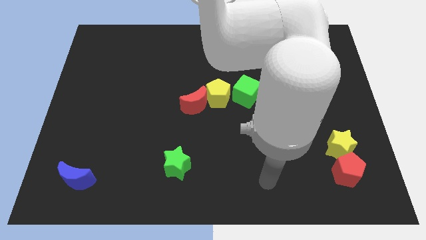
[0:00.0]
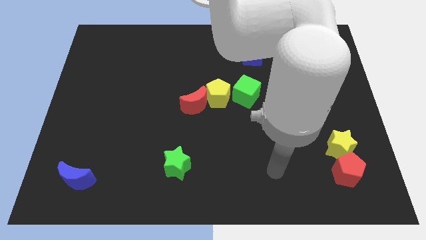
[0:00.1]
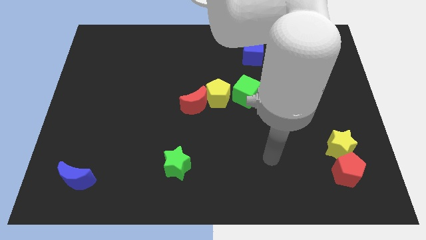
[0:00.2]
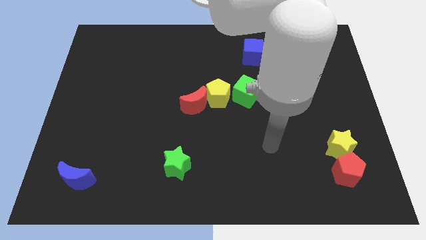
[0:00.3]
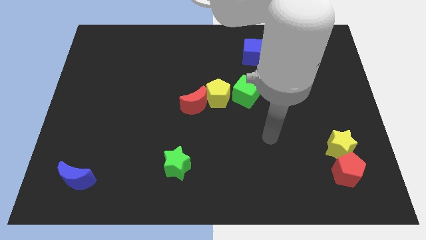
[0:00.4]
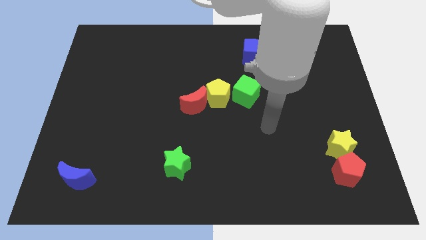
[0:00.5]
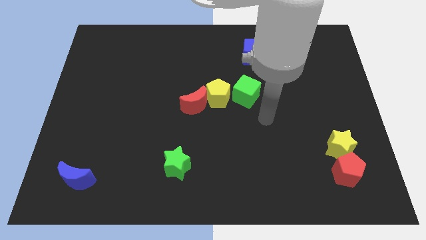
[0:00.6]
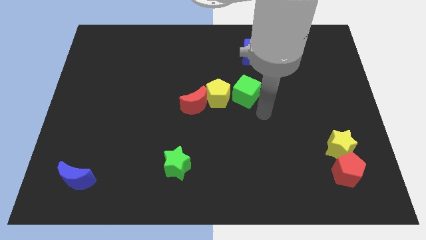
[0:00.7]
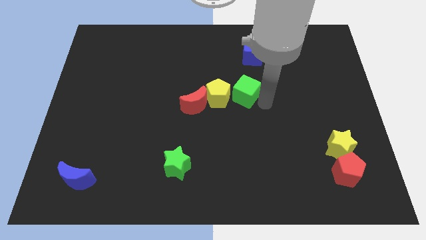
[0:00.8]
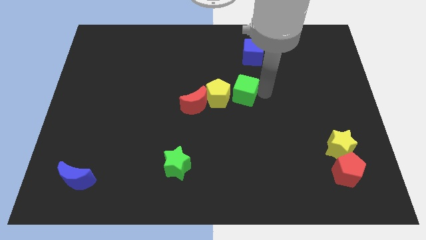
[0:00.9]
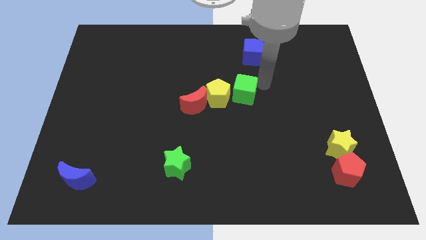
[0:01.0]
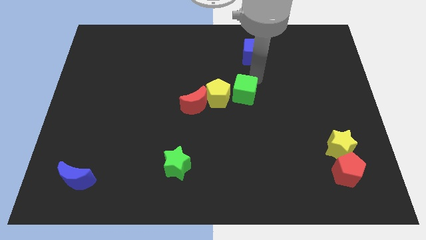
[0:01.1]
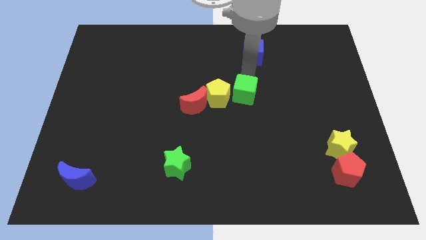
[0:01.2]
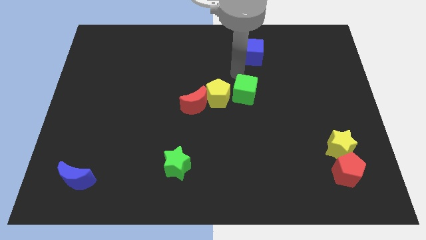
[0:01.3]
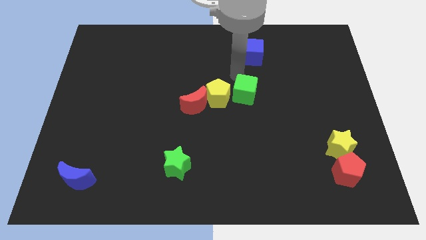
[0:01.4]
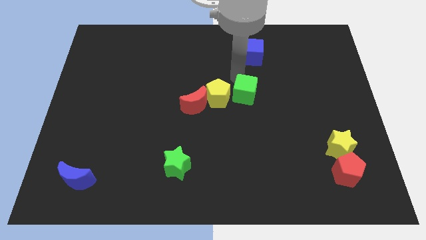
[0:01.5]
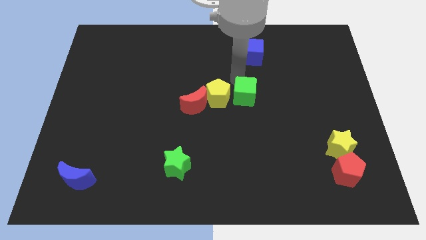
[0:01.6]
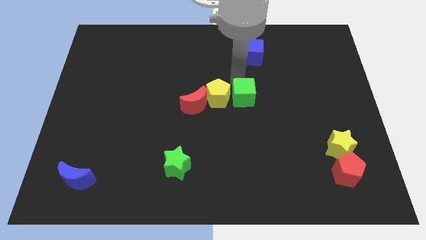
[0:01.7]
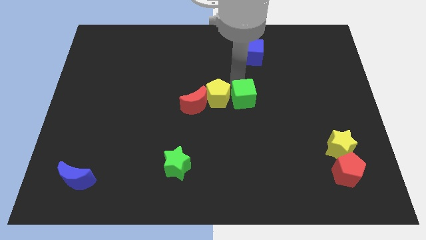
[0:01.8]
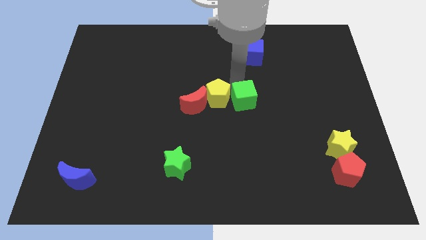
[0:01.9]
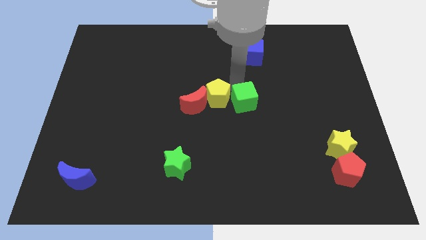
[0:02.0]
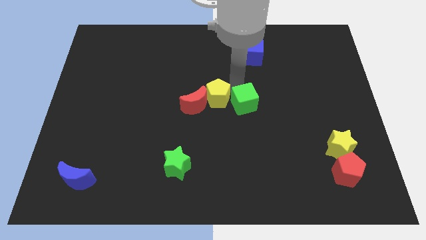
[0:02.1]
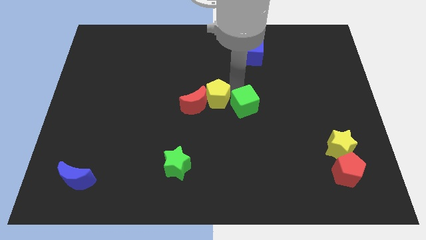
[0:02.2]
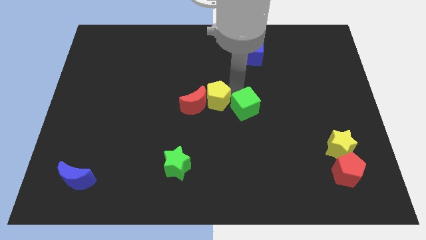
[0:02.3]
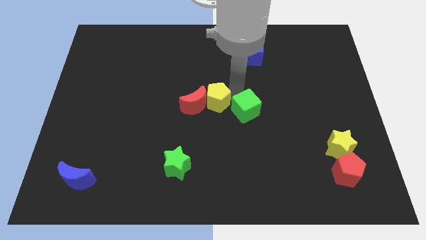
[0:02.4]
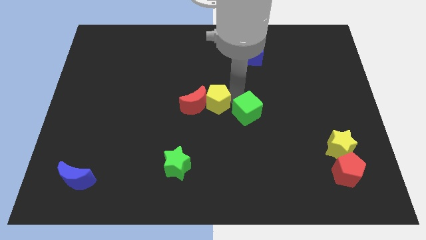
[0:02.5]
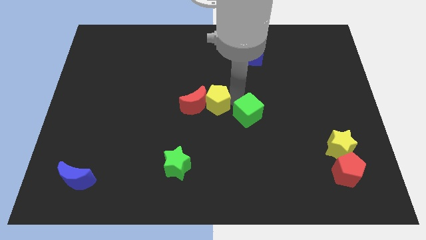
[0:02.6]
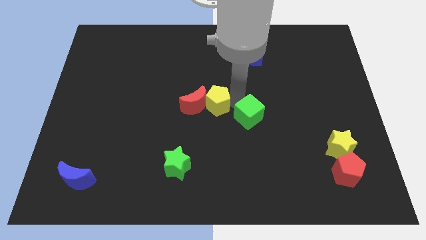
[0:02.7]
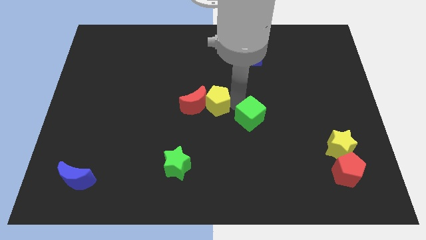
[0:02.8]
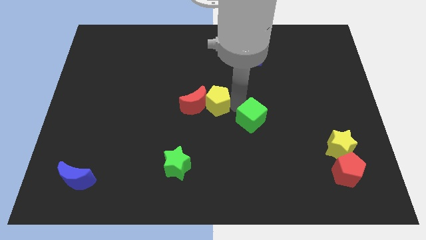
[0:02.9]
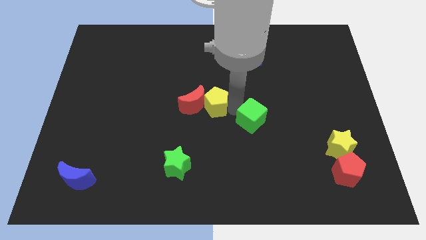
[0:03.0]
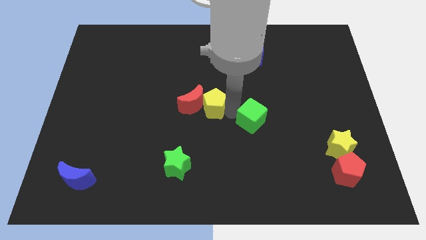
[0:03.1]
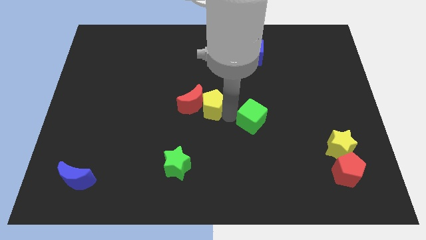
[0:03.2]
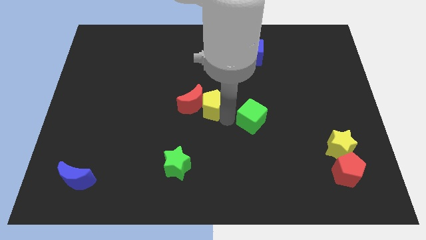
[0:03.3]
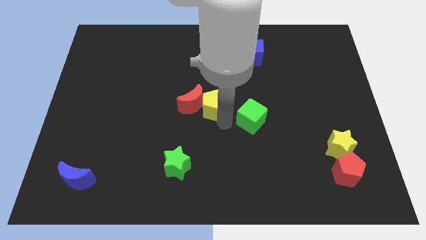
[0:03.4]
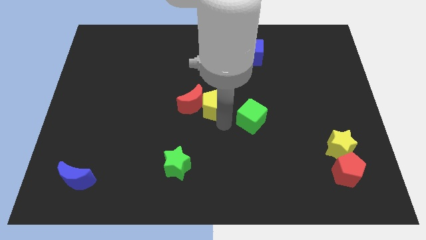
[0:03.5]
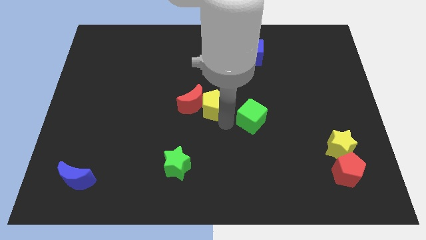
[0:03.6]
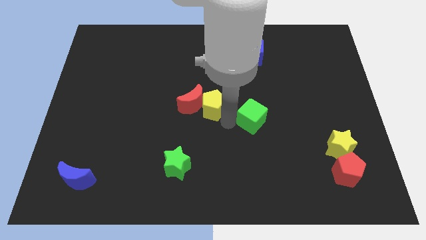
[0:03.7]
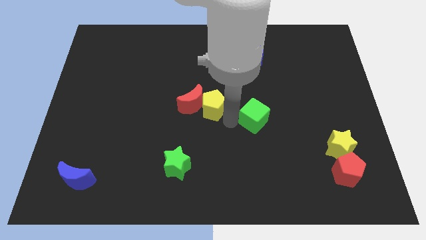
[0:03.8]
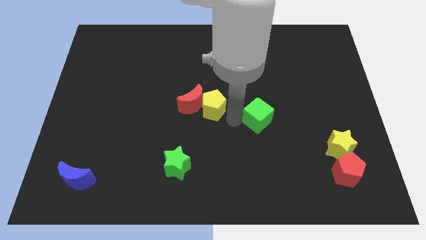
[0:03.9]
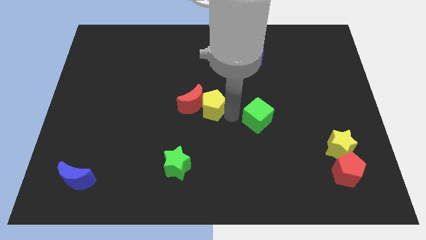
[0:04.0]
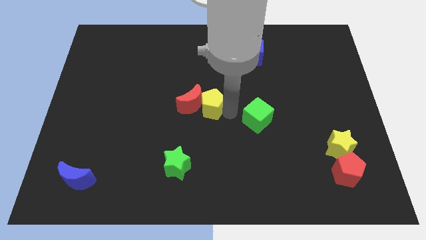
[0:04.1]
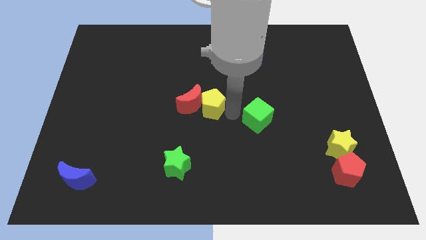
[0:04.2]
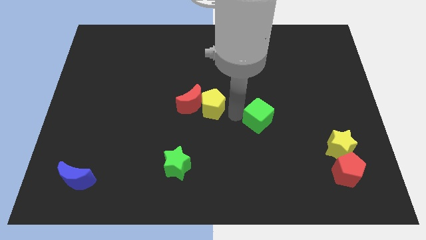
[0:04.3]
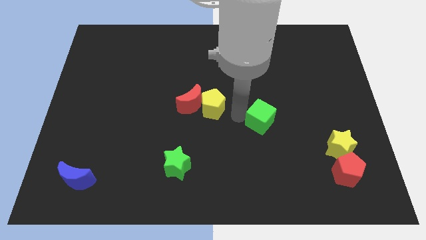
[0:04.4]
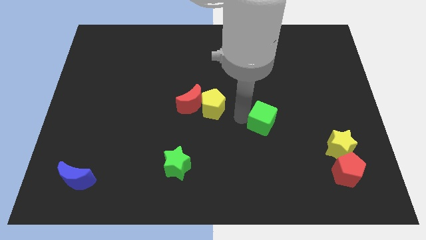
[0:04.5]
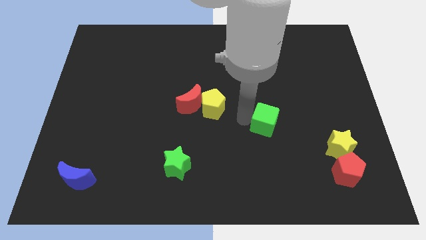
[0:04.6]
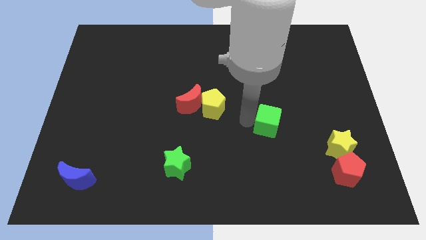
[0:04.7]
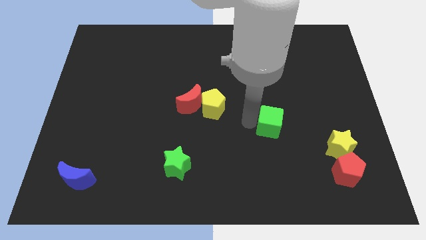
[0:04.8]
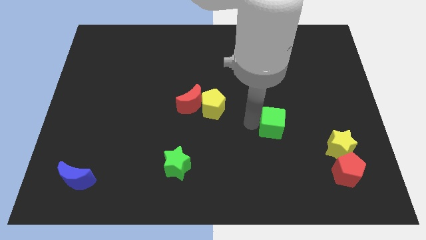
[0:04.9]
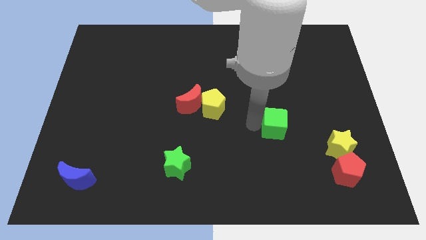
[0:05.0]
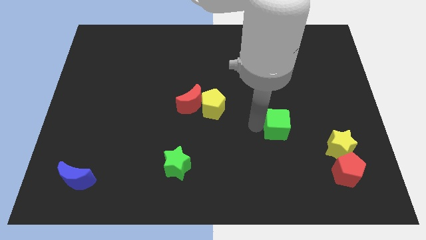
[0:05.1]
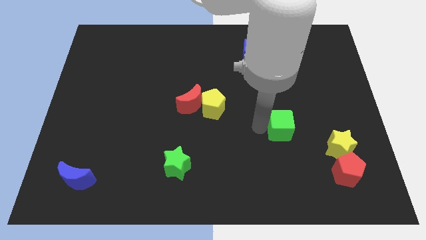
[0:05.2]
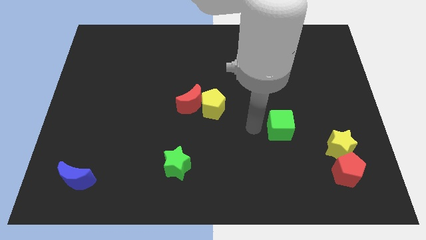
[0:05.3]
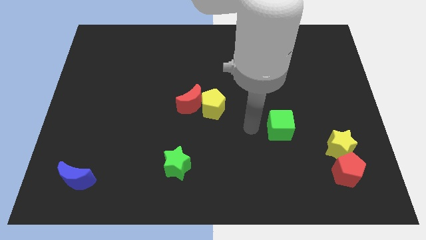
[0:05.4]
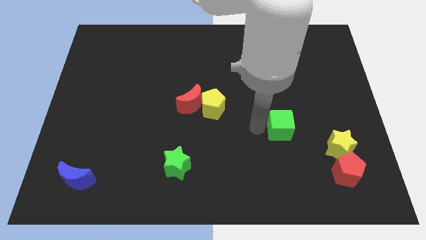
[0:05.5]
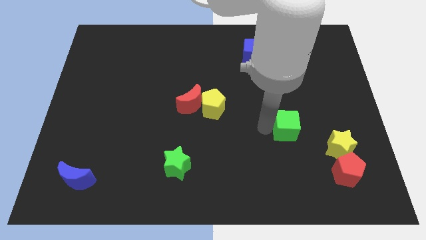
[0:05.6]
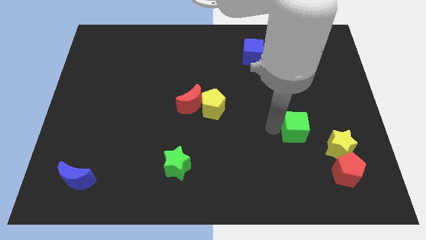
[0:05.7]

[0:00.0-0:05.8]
push the green cube diagonally up and to the left of the yellow star

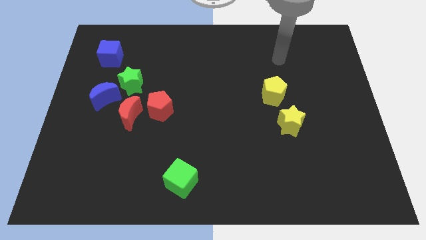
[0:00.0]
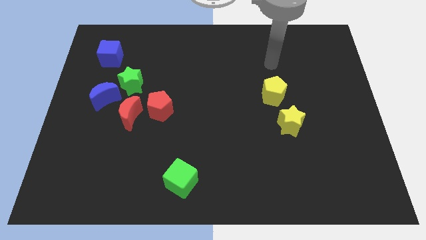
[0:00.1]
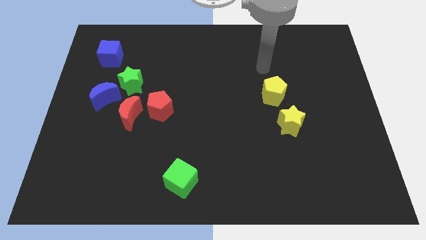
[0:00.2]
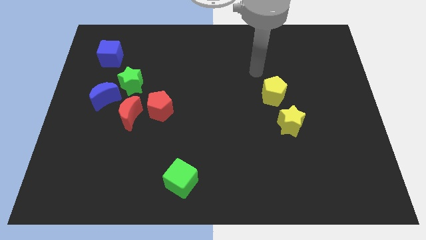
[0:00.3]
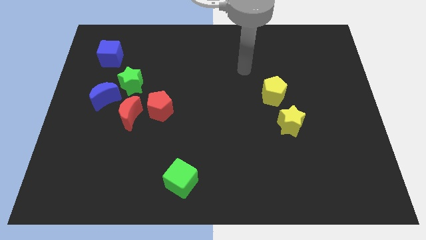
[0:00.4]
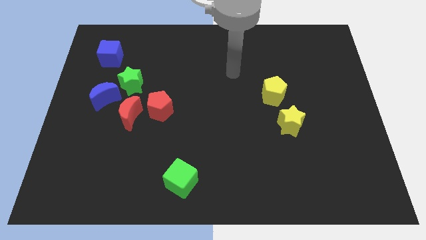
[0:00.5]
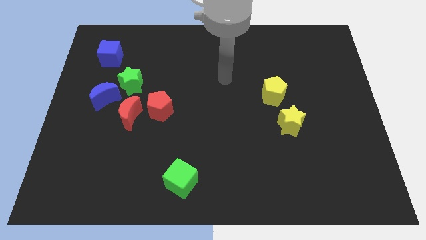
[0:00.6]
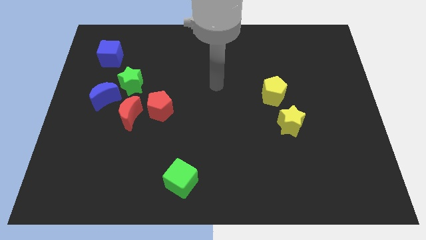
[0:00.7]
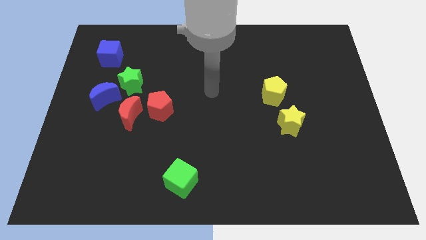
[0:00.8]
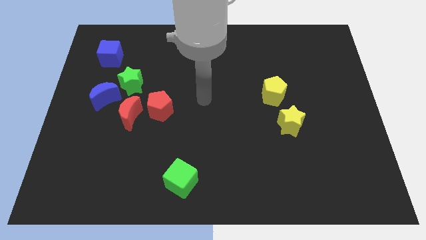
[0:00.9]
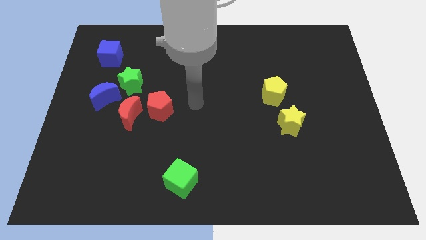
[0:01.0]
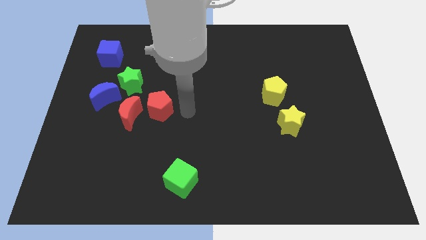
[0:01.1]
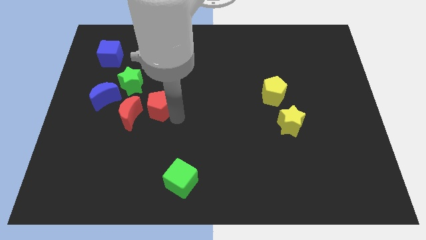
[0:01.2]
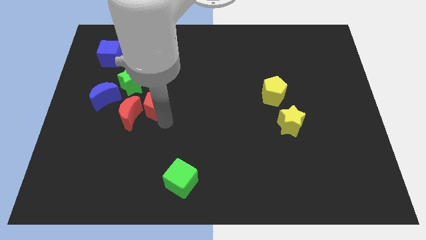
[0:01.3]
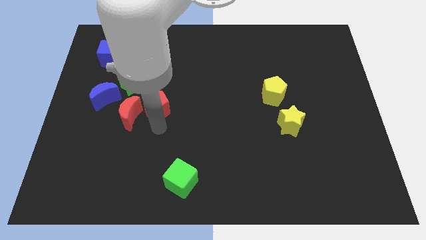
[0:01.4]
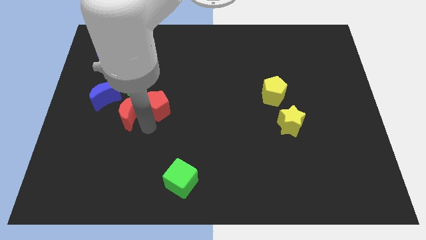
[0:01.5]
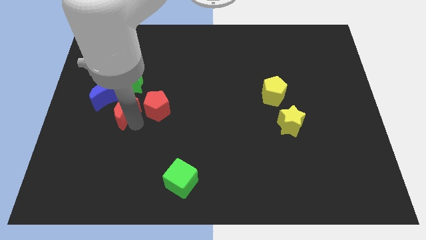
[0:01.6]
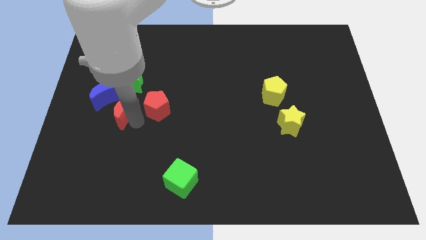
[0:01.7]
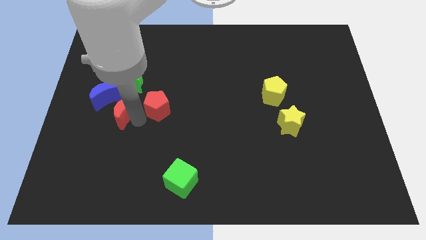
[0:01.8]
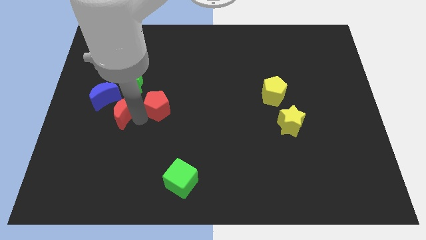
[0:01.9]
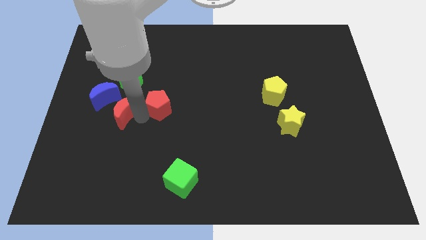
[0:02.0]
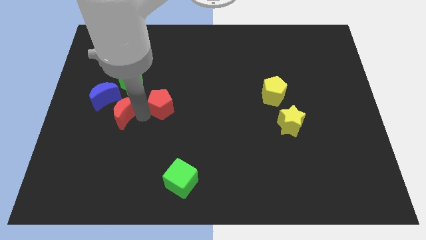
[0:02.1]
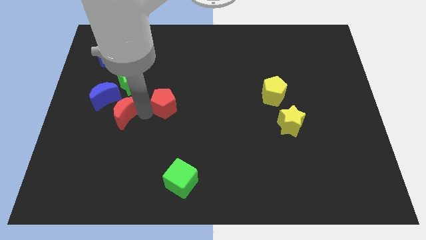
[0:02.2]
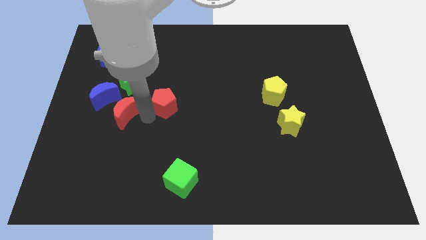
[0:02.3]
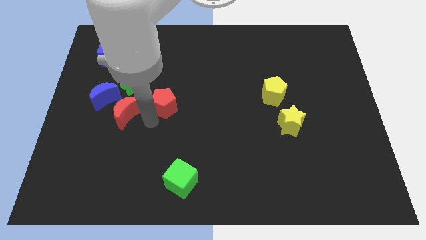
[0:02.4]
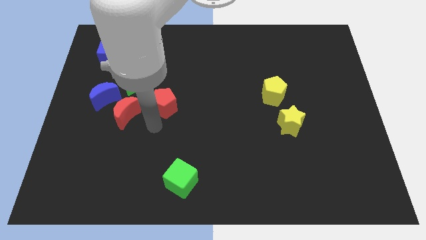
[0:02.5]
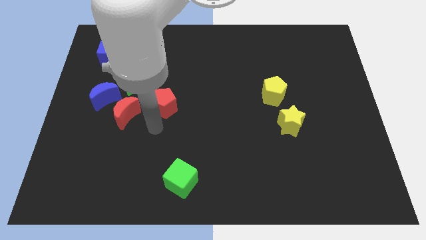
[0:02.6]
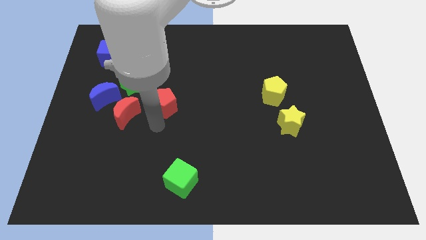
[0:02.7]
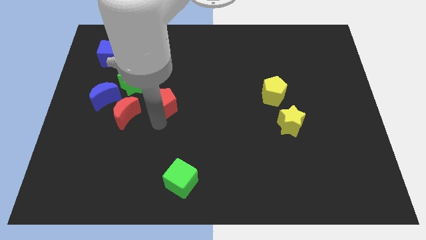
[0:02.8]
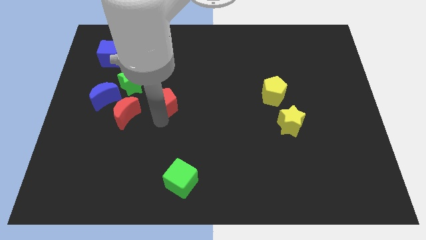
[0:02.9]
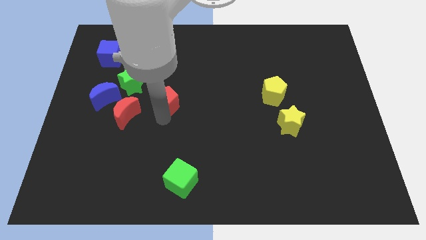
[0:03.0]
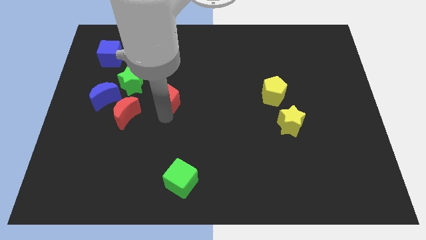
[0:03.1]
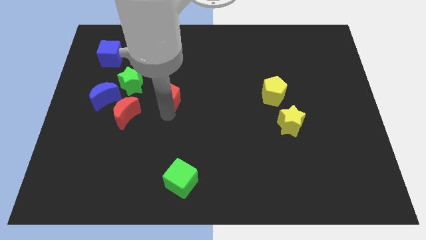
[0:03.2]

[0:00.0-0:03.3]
push the red pentagon right of the green star
